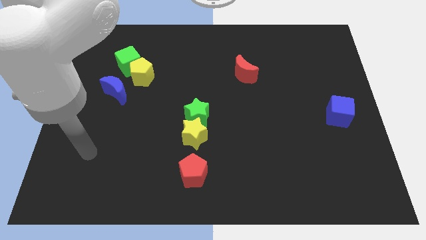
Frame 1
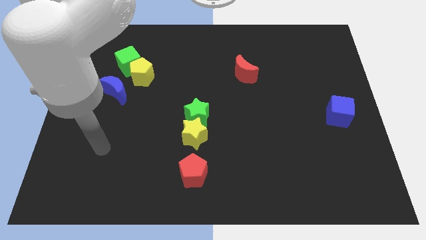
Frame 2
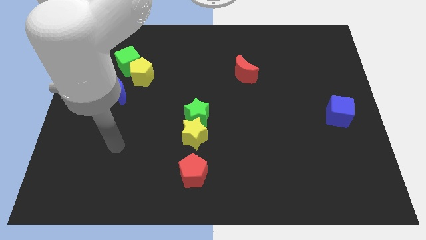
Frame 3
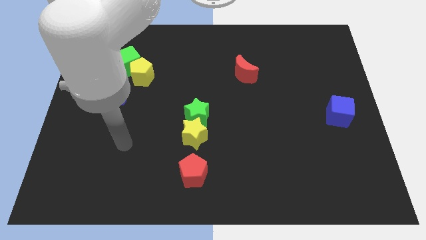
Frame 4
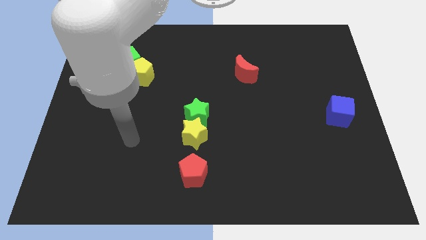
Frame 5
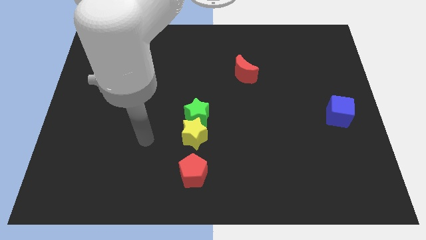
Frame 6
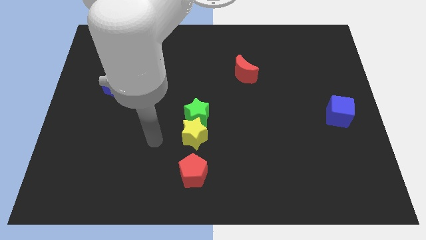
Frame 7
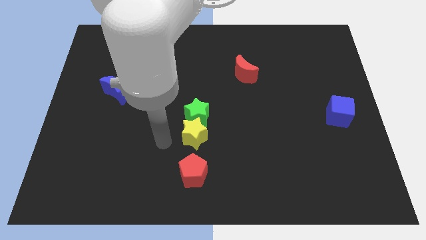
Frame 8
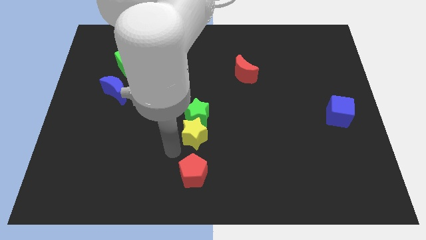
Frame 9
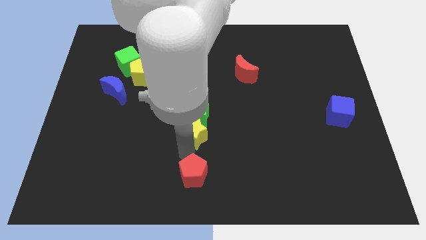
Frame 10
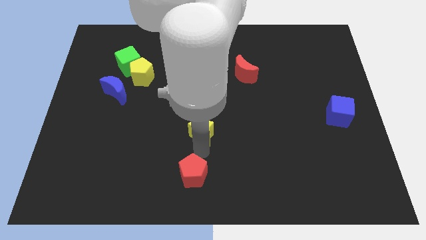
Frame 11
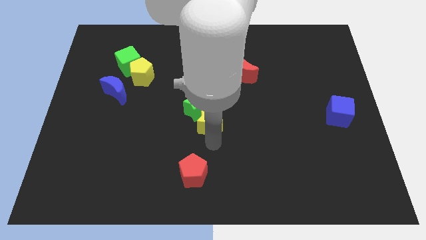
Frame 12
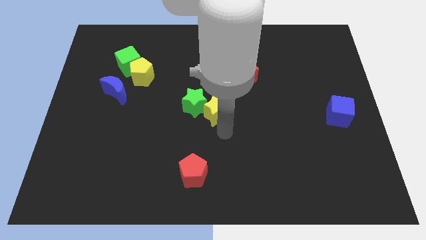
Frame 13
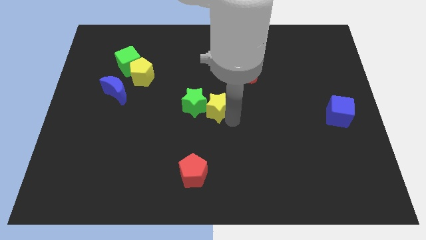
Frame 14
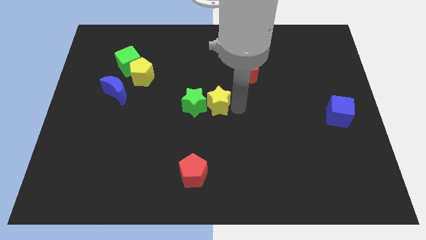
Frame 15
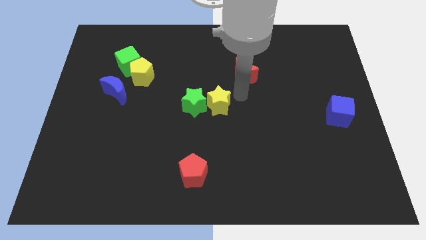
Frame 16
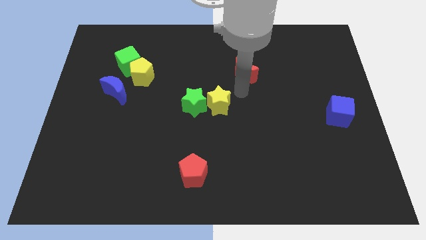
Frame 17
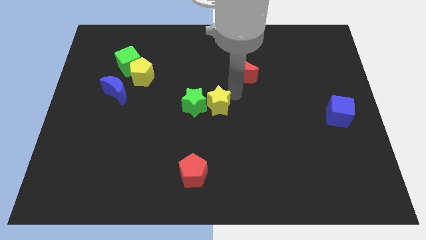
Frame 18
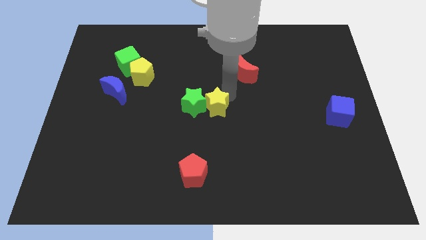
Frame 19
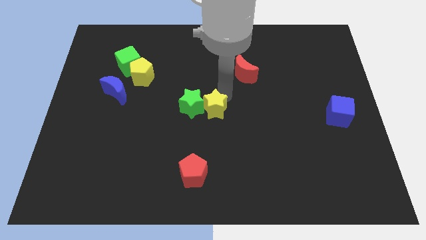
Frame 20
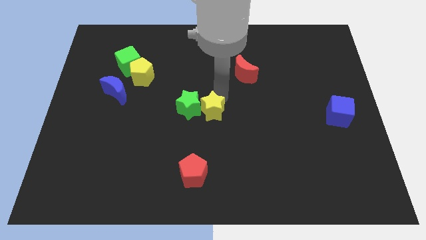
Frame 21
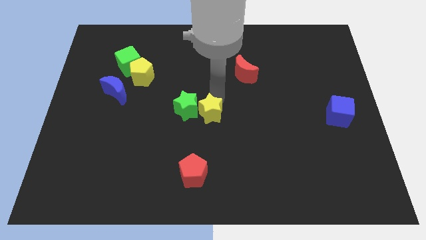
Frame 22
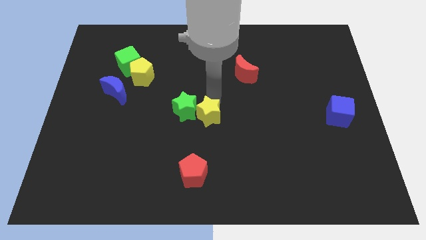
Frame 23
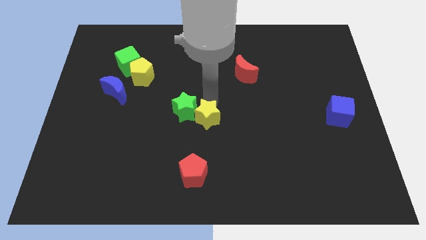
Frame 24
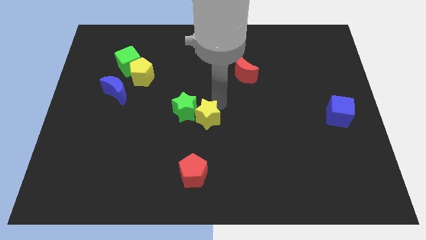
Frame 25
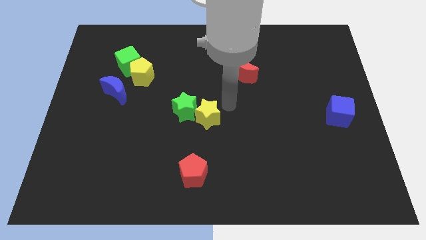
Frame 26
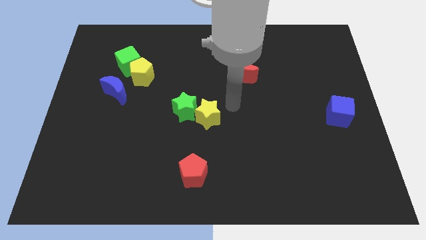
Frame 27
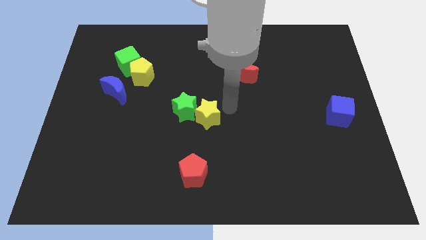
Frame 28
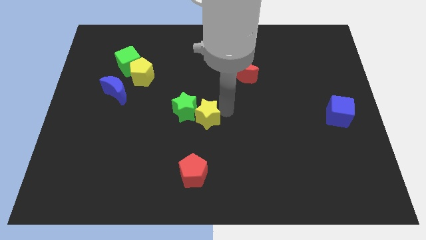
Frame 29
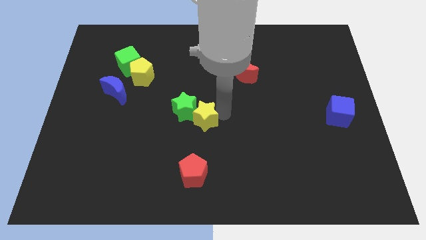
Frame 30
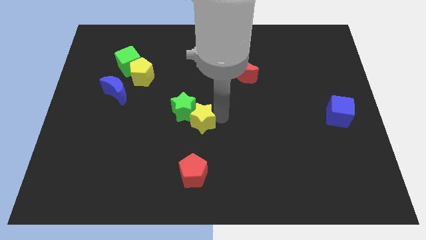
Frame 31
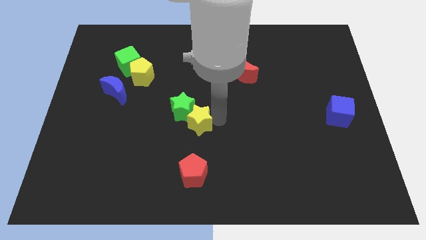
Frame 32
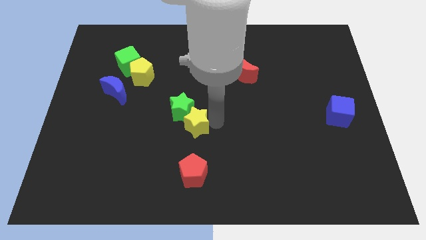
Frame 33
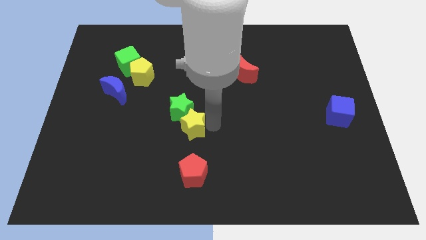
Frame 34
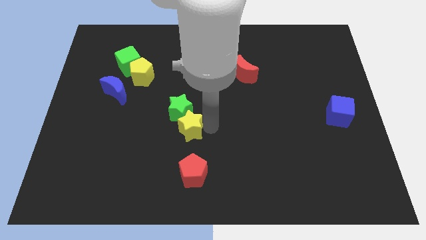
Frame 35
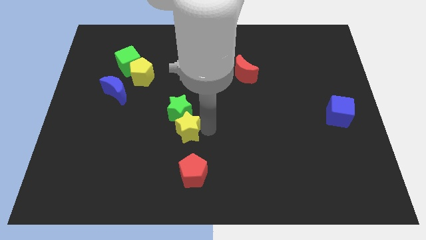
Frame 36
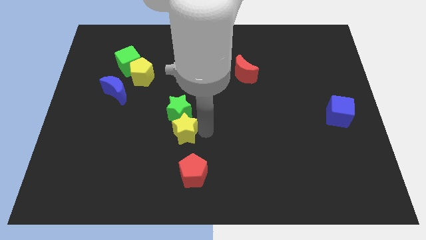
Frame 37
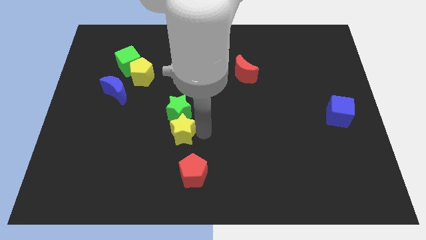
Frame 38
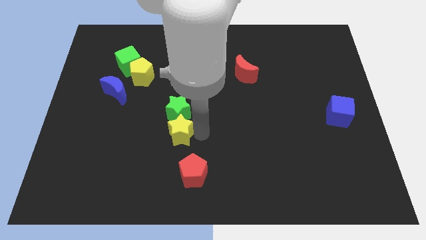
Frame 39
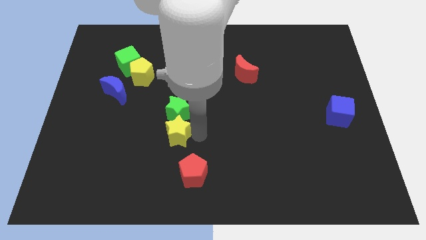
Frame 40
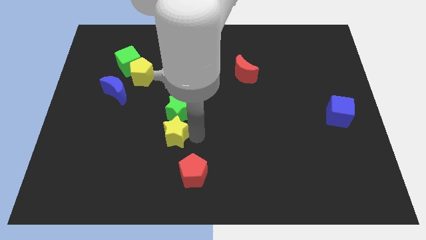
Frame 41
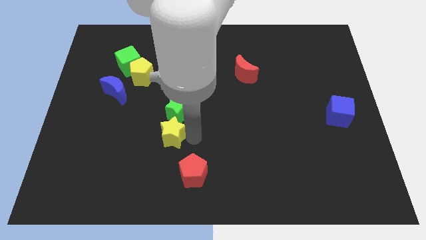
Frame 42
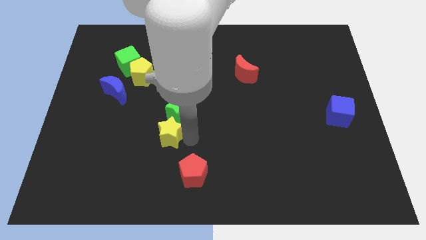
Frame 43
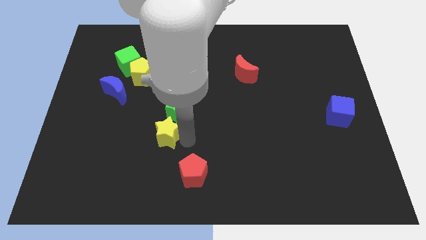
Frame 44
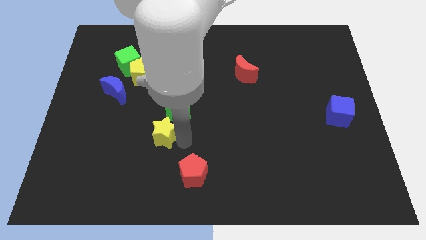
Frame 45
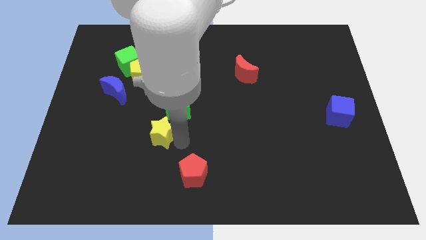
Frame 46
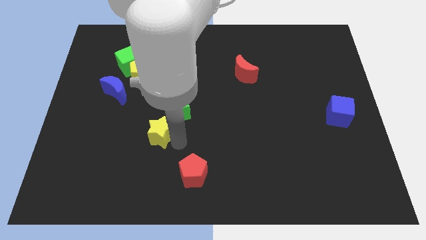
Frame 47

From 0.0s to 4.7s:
slide the yellow star a little left

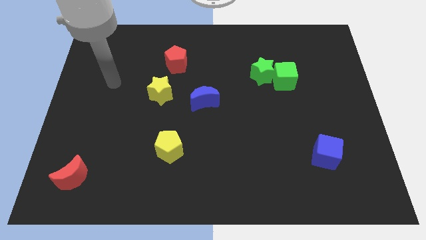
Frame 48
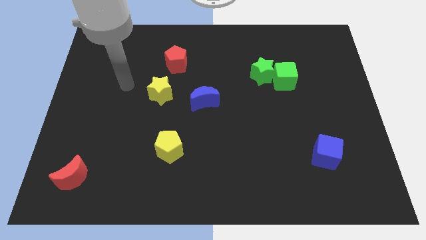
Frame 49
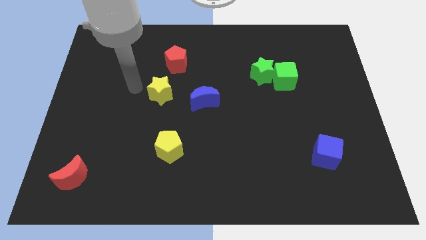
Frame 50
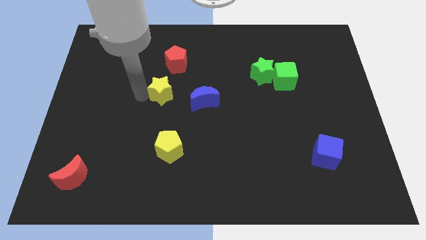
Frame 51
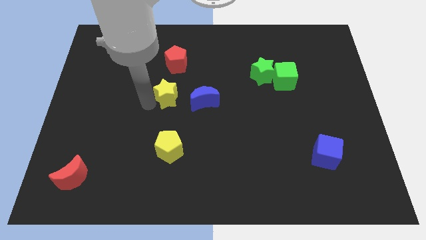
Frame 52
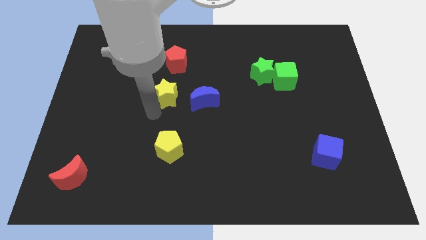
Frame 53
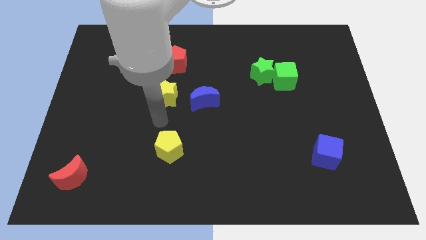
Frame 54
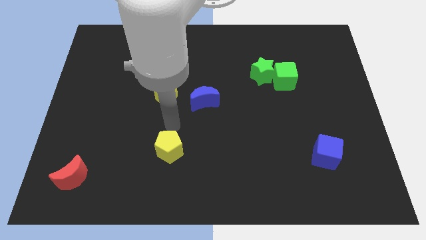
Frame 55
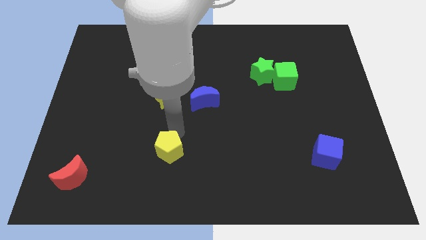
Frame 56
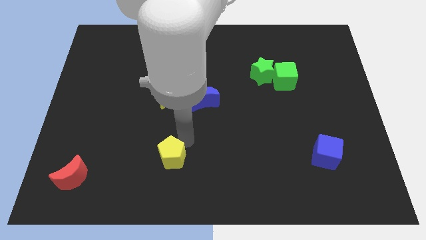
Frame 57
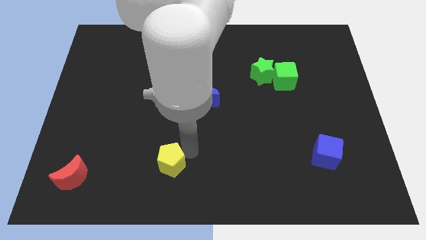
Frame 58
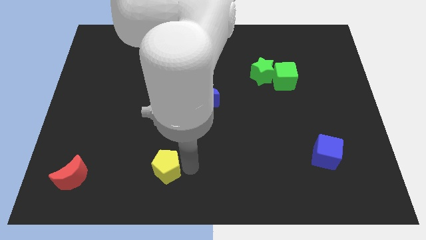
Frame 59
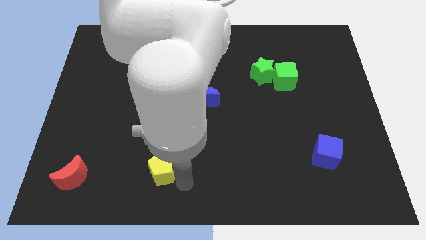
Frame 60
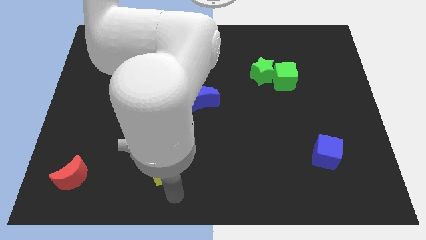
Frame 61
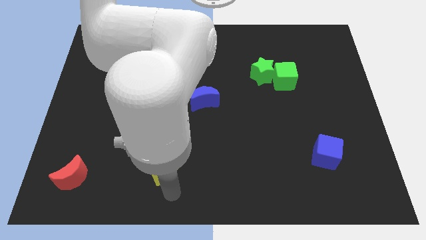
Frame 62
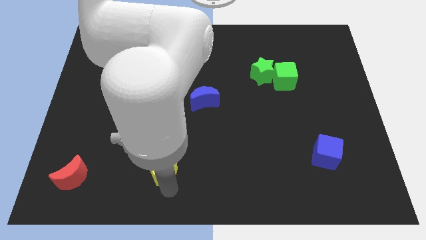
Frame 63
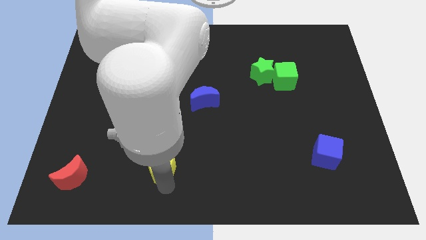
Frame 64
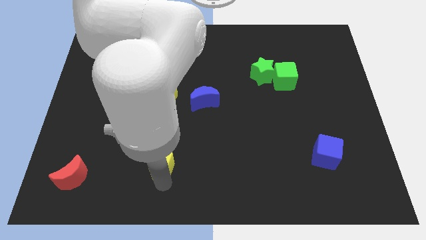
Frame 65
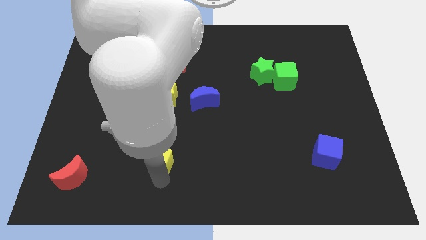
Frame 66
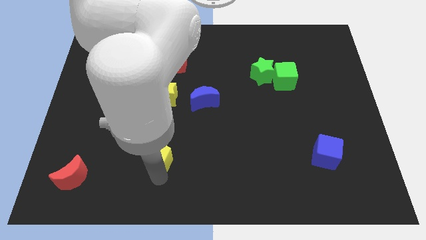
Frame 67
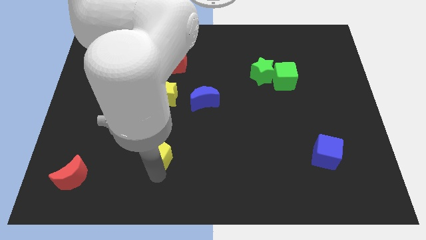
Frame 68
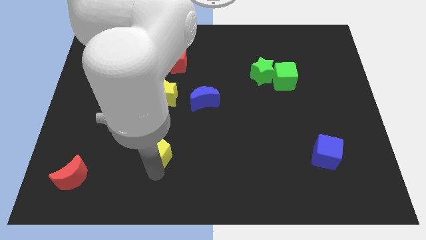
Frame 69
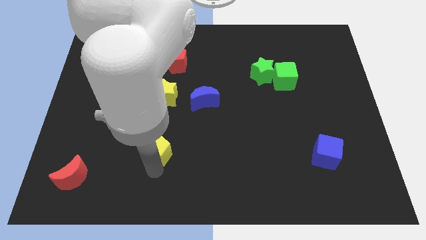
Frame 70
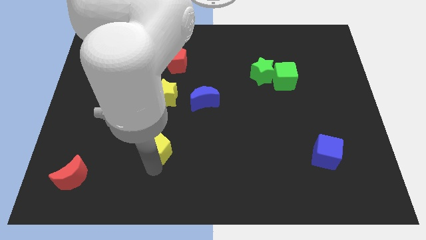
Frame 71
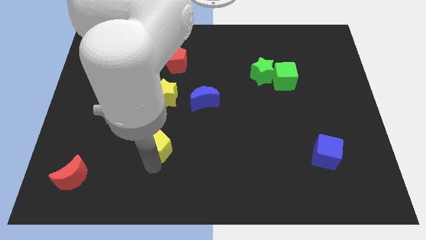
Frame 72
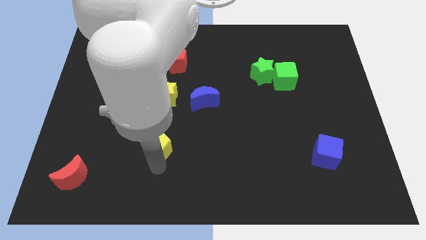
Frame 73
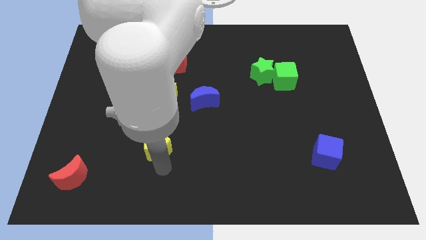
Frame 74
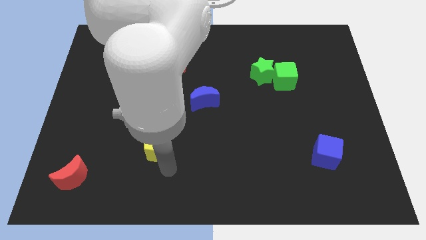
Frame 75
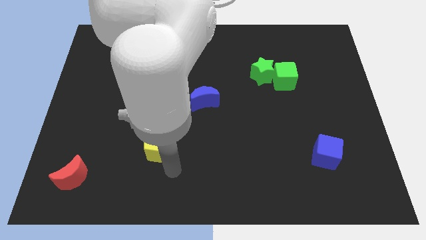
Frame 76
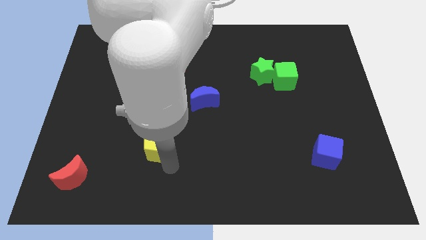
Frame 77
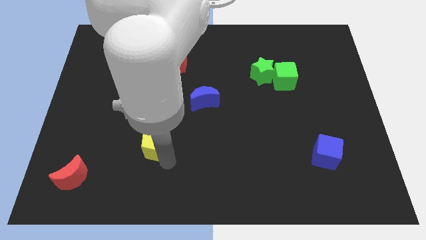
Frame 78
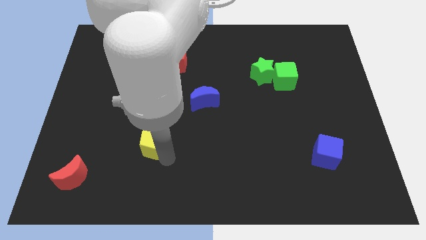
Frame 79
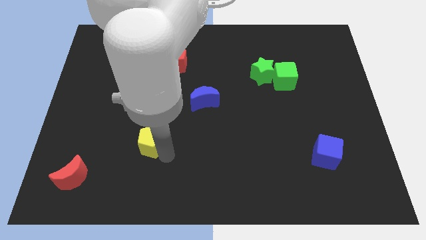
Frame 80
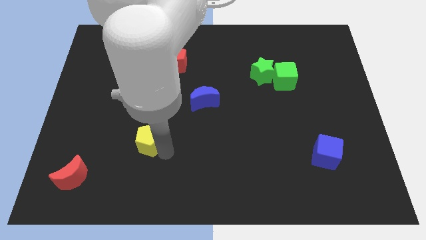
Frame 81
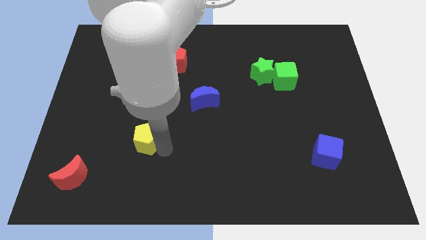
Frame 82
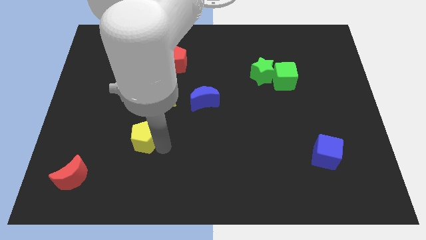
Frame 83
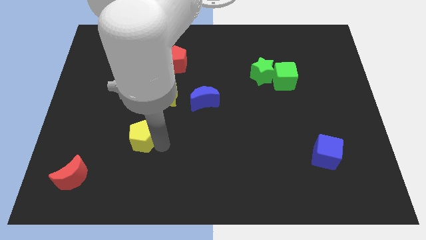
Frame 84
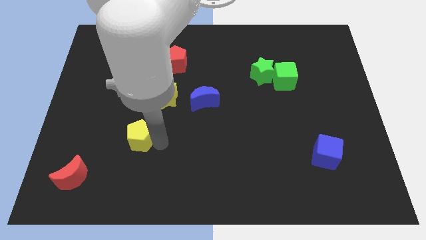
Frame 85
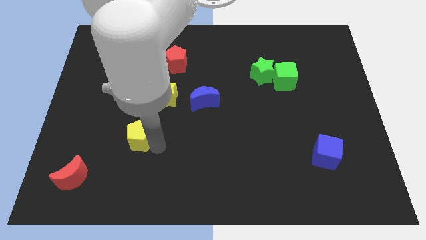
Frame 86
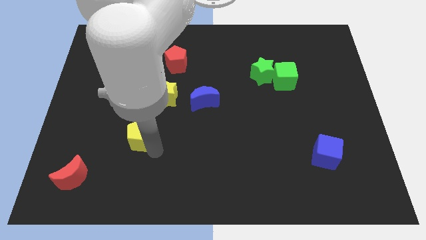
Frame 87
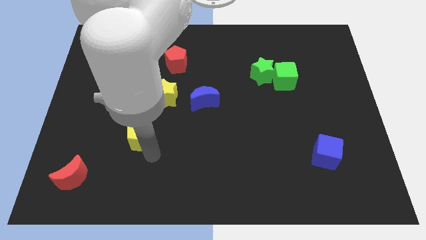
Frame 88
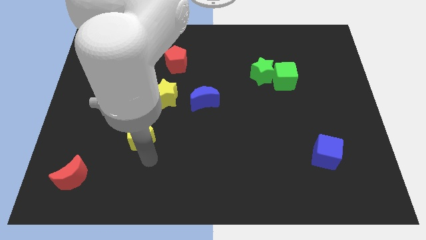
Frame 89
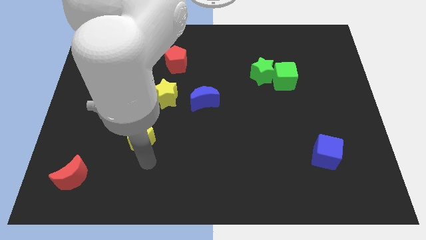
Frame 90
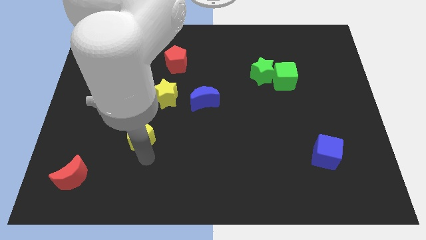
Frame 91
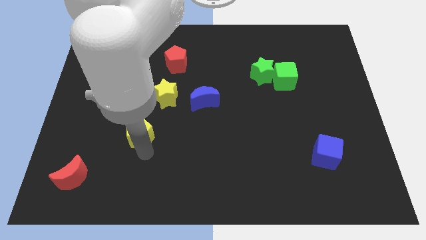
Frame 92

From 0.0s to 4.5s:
move the yellow pentagon a little upwards and left
